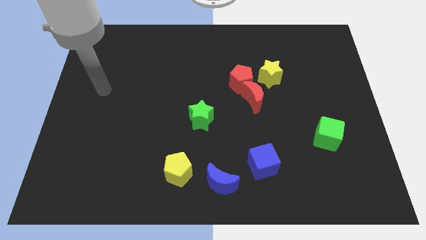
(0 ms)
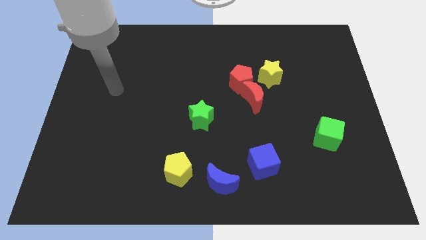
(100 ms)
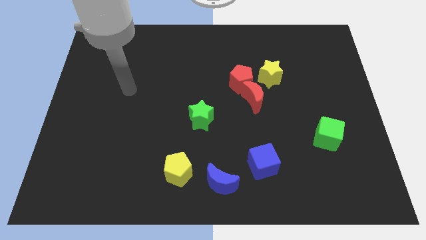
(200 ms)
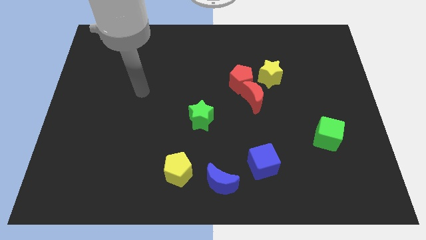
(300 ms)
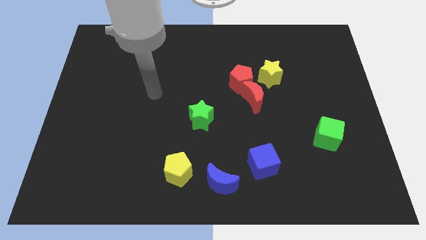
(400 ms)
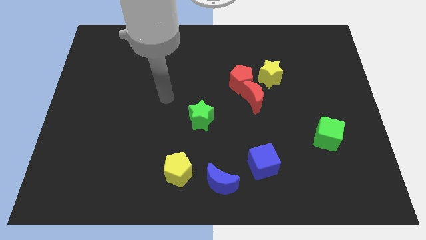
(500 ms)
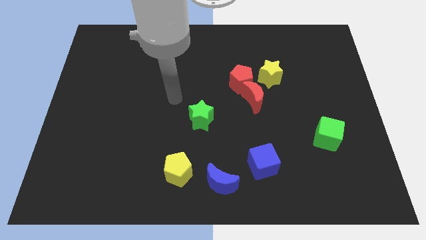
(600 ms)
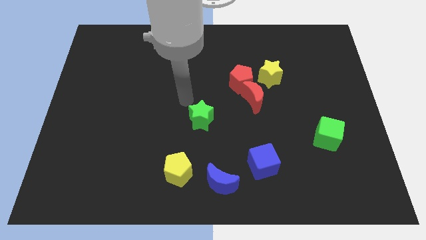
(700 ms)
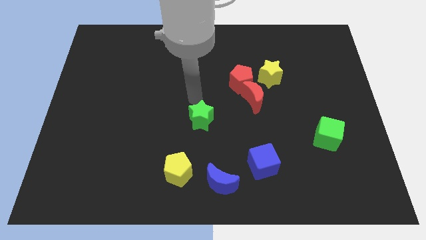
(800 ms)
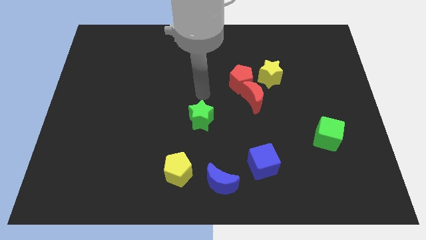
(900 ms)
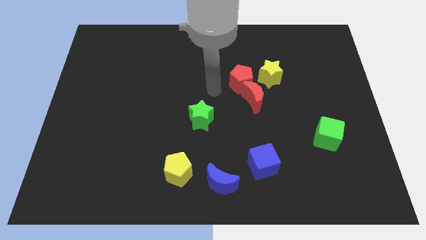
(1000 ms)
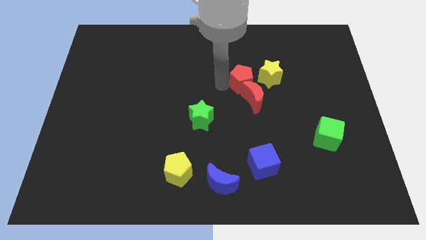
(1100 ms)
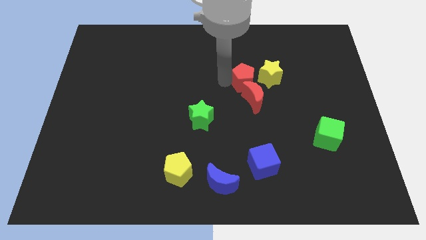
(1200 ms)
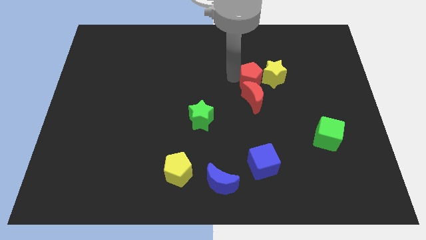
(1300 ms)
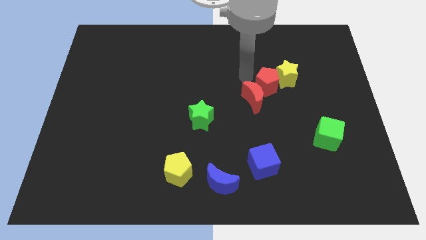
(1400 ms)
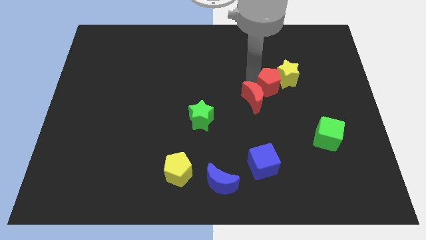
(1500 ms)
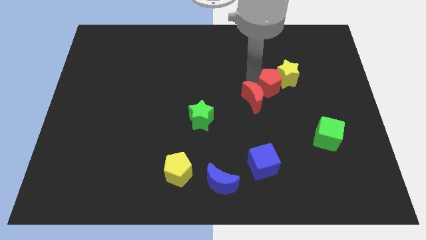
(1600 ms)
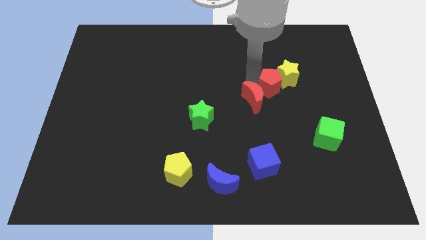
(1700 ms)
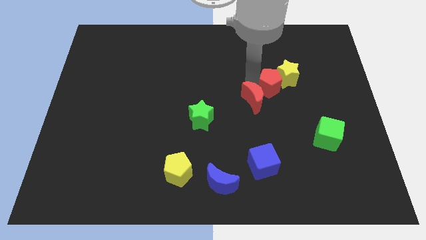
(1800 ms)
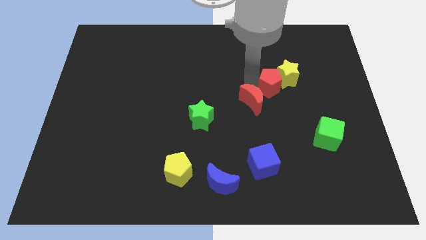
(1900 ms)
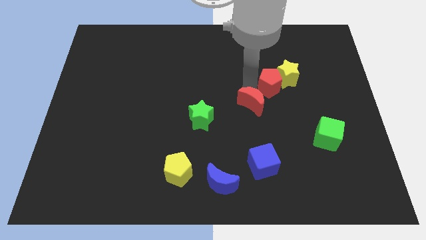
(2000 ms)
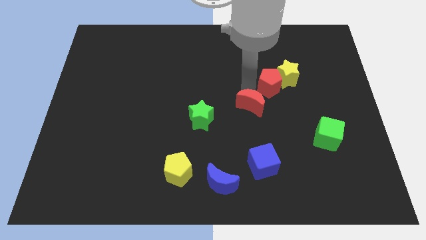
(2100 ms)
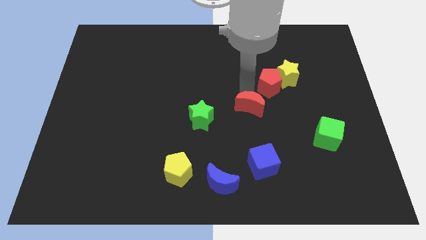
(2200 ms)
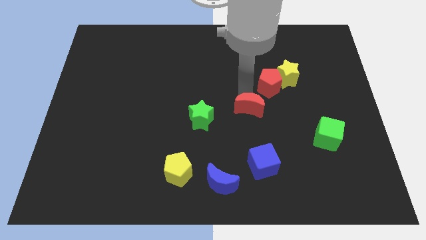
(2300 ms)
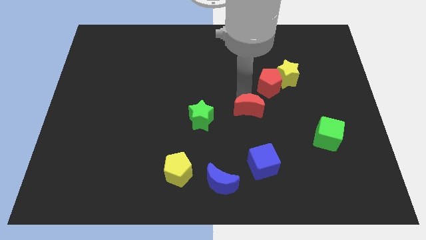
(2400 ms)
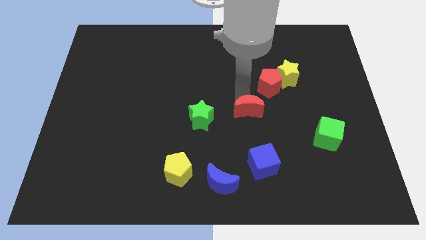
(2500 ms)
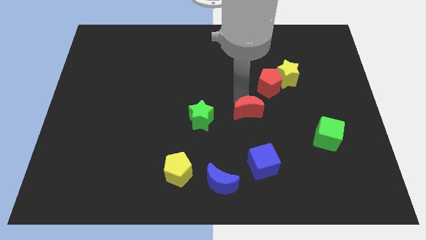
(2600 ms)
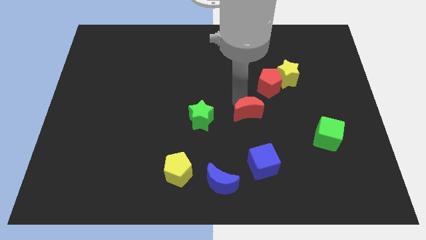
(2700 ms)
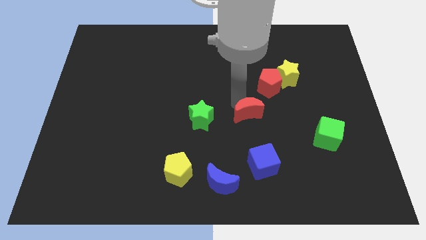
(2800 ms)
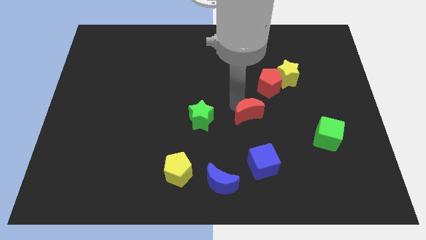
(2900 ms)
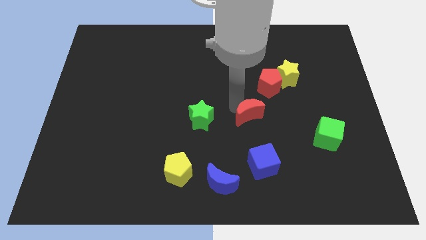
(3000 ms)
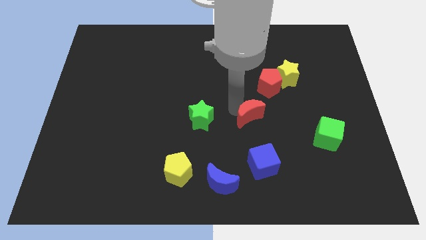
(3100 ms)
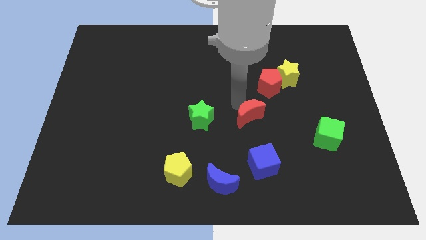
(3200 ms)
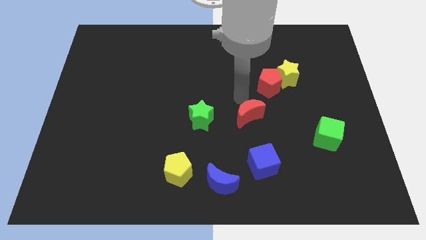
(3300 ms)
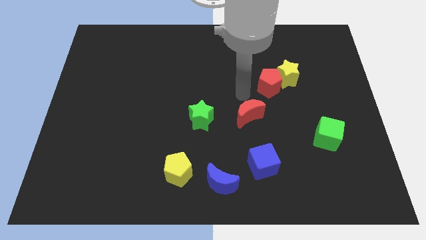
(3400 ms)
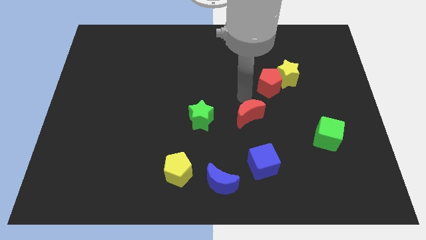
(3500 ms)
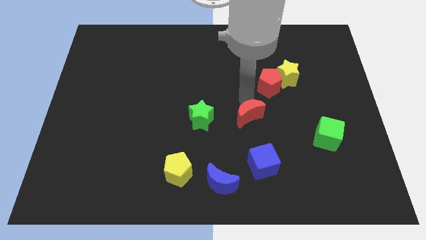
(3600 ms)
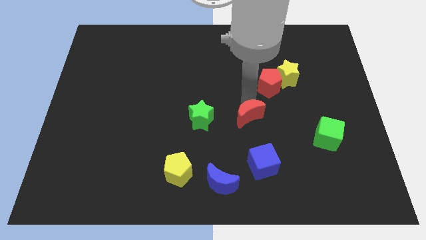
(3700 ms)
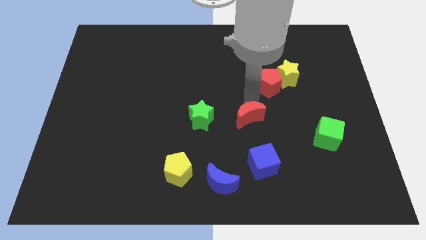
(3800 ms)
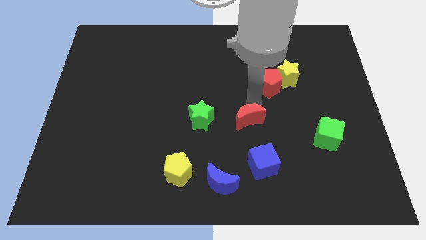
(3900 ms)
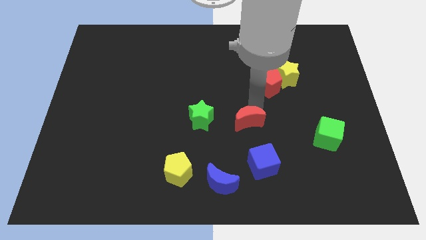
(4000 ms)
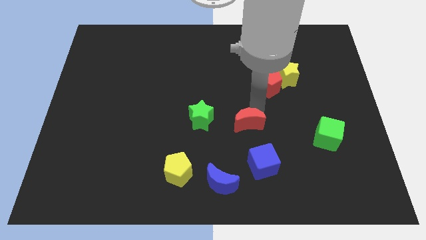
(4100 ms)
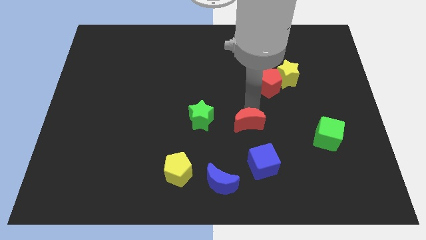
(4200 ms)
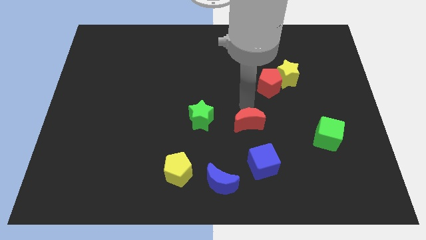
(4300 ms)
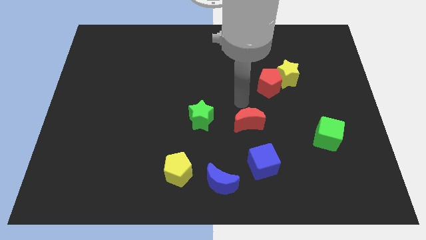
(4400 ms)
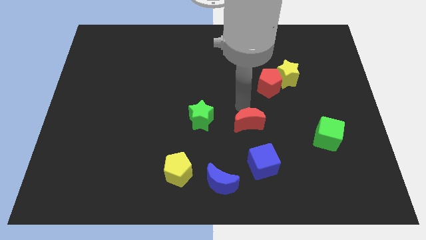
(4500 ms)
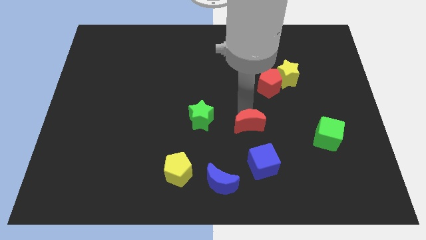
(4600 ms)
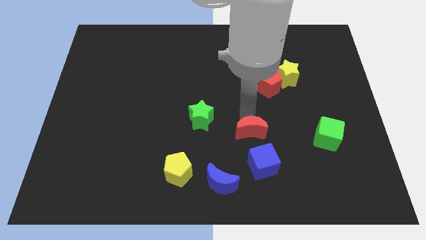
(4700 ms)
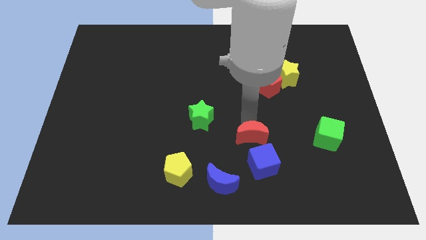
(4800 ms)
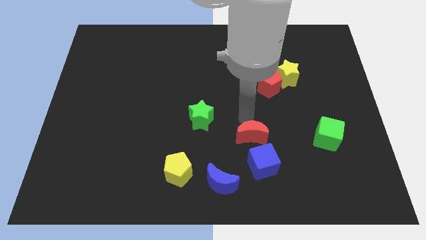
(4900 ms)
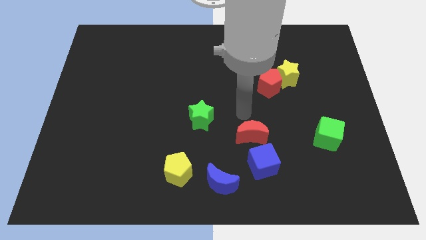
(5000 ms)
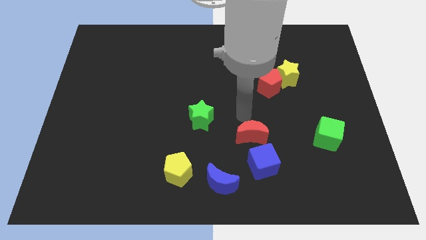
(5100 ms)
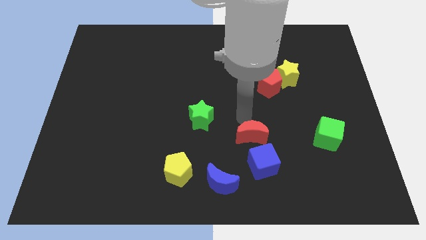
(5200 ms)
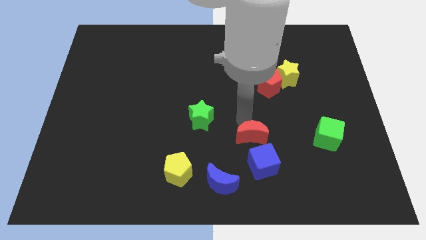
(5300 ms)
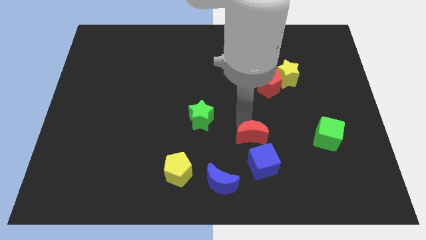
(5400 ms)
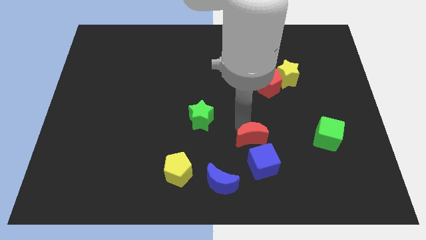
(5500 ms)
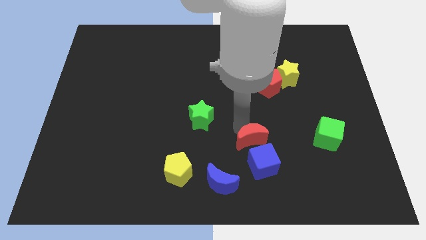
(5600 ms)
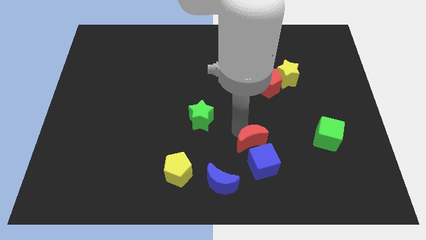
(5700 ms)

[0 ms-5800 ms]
move the red moon close to the blue cube

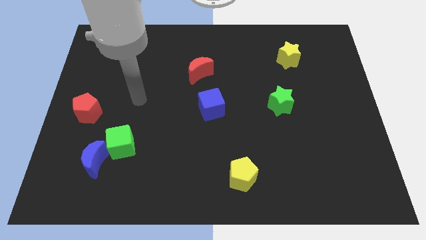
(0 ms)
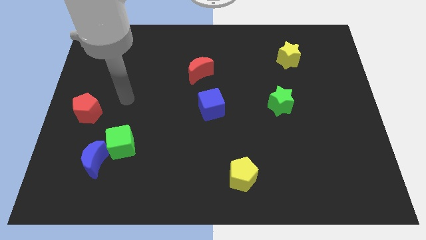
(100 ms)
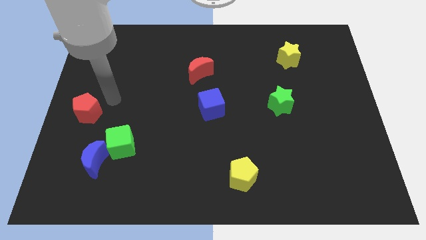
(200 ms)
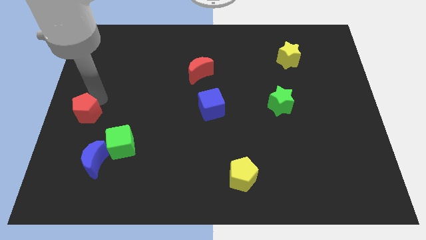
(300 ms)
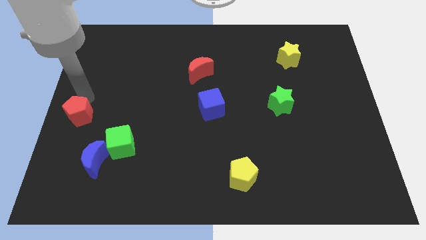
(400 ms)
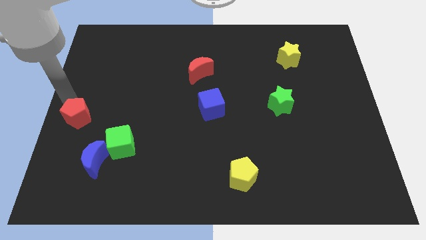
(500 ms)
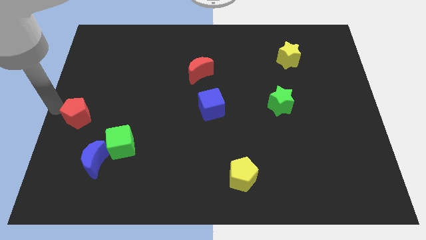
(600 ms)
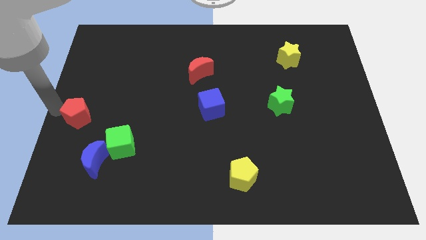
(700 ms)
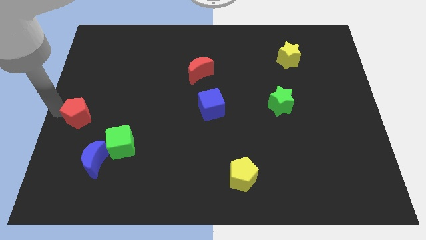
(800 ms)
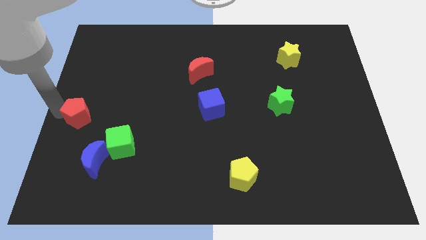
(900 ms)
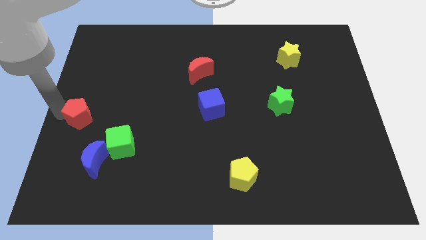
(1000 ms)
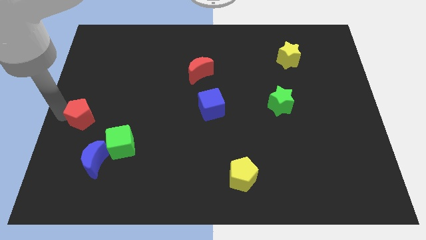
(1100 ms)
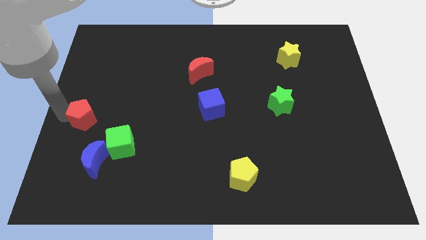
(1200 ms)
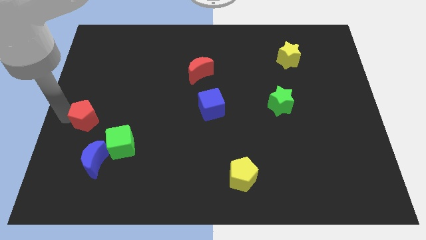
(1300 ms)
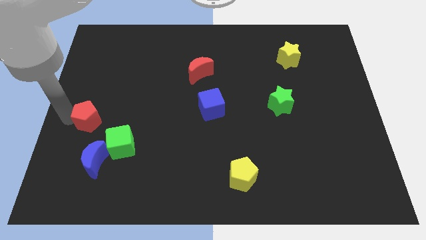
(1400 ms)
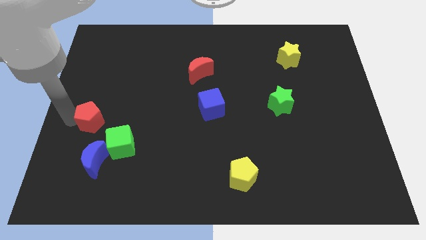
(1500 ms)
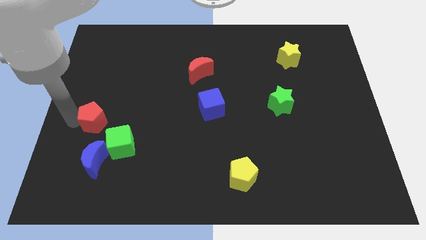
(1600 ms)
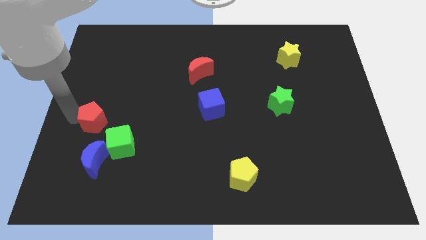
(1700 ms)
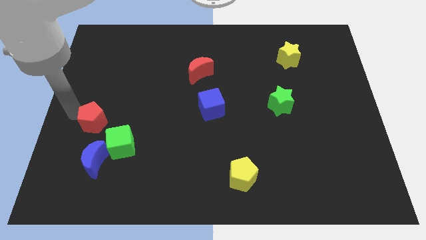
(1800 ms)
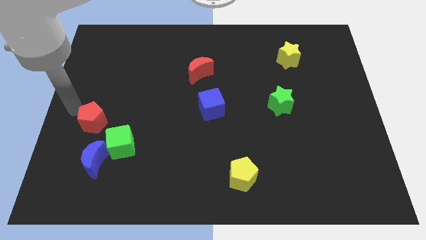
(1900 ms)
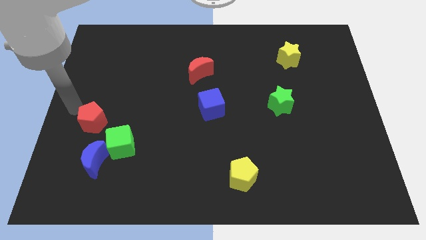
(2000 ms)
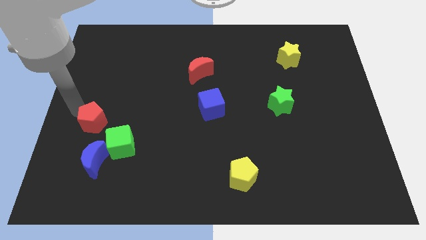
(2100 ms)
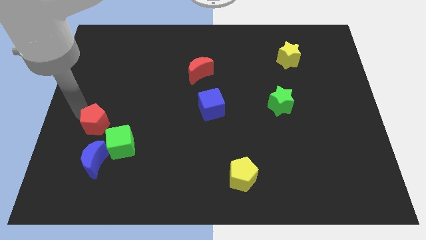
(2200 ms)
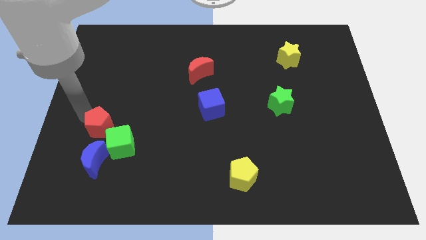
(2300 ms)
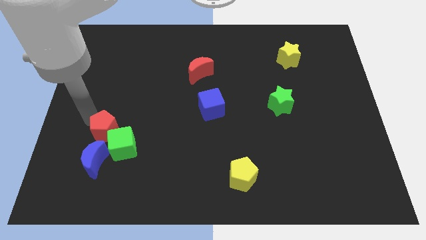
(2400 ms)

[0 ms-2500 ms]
put the red pentagon towards the green cube
